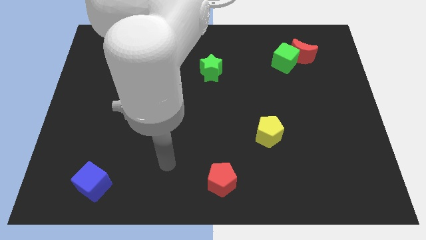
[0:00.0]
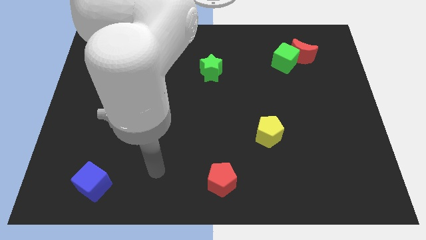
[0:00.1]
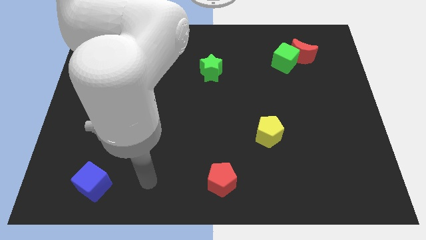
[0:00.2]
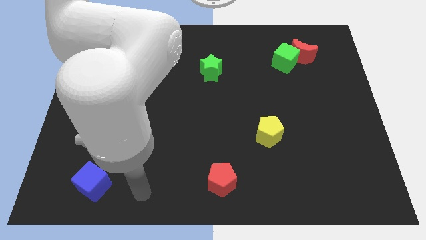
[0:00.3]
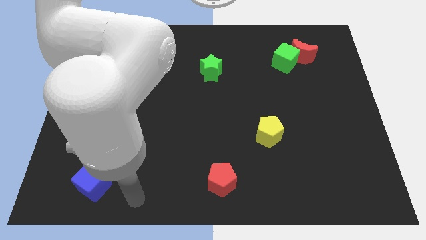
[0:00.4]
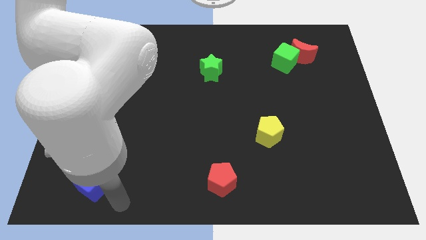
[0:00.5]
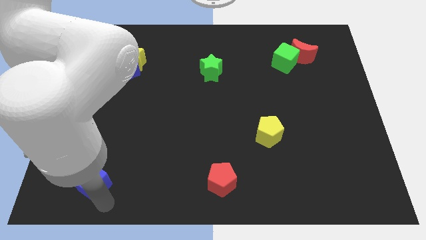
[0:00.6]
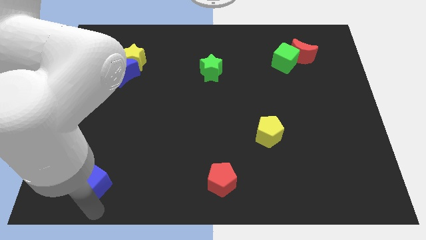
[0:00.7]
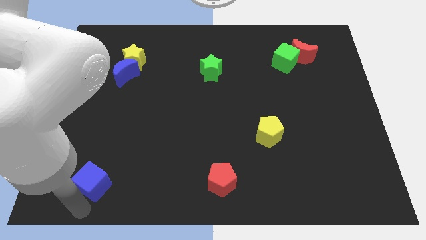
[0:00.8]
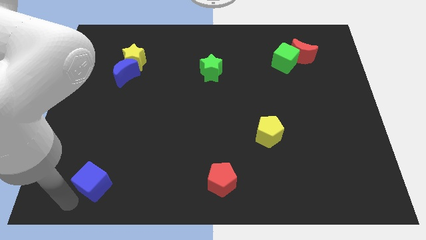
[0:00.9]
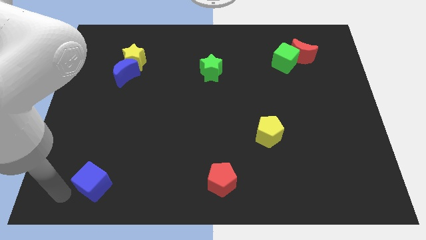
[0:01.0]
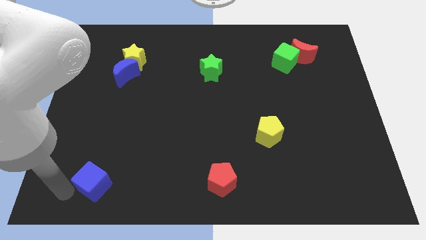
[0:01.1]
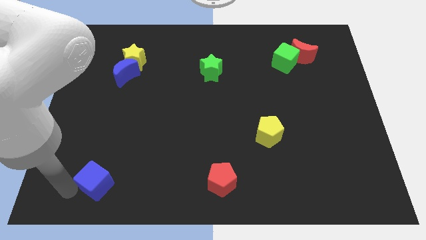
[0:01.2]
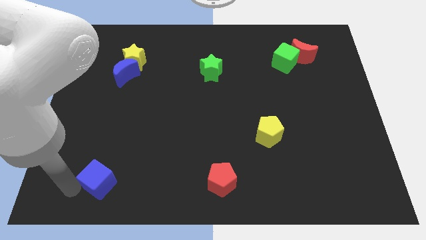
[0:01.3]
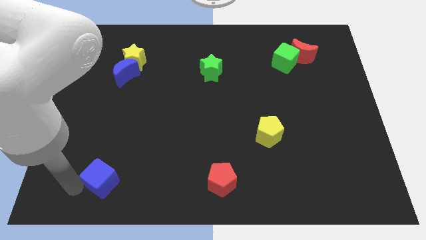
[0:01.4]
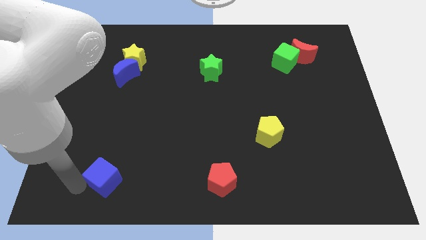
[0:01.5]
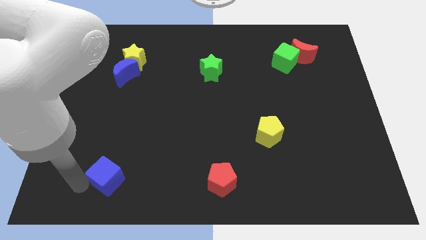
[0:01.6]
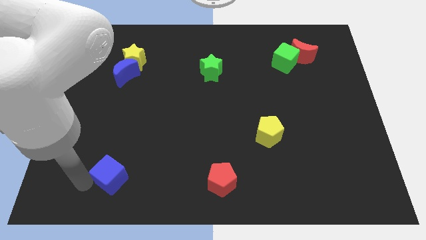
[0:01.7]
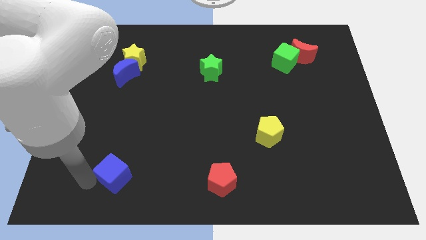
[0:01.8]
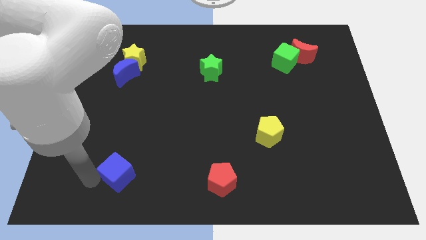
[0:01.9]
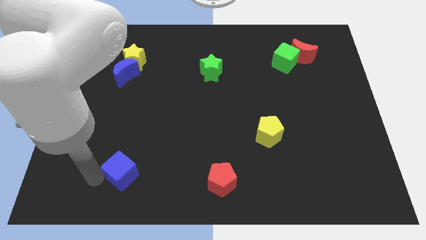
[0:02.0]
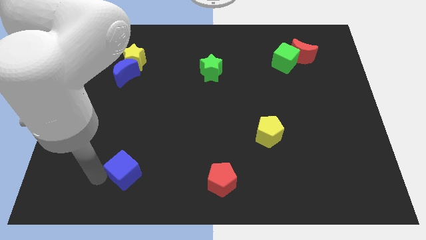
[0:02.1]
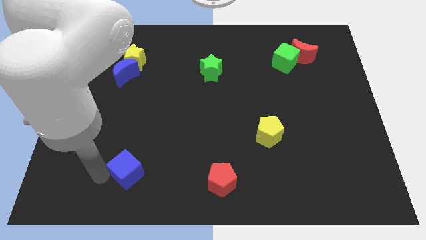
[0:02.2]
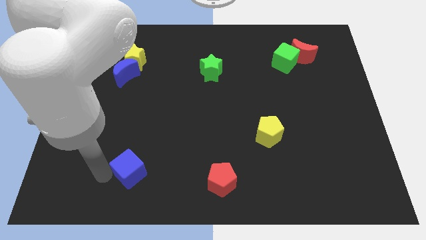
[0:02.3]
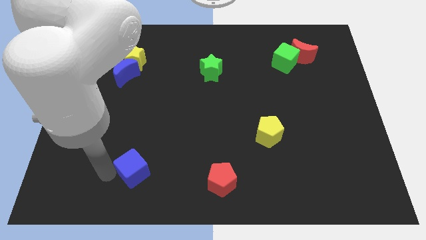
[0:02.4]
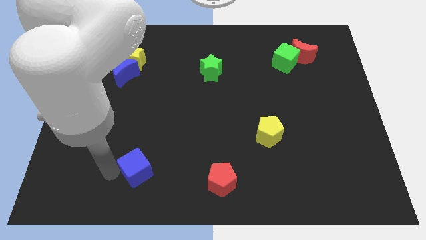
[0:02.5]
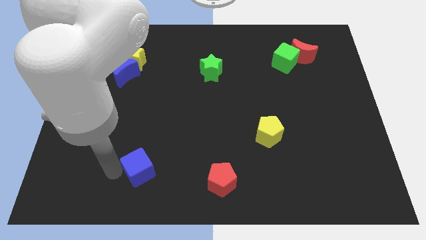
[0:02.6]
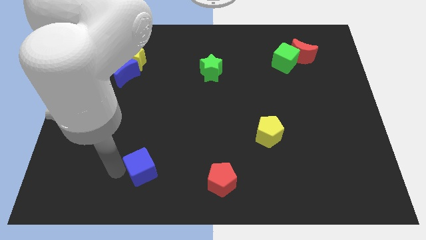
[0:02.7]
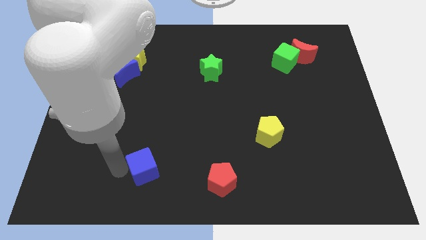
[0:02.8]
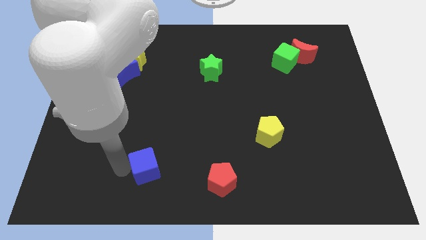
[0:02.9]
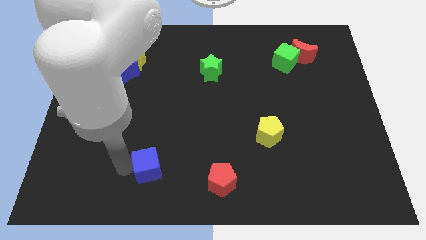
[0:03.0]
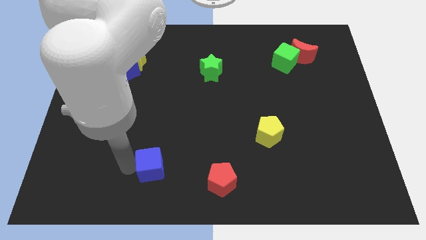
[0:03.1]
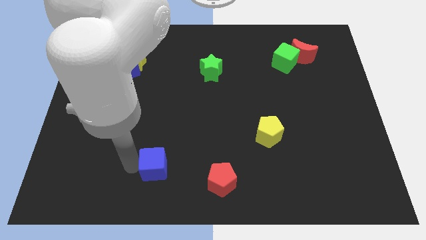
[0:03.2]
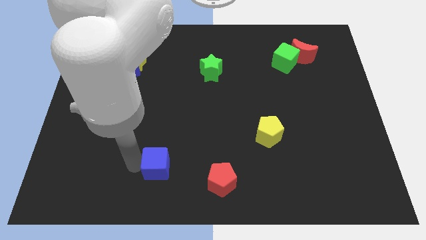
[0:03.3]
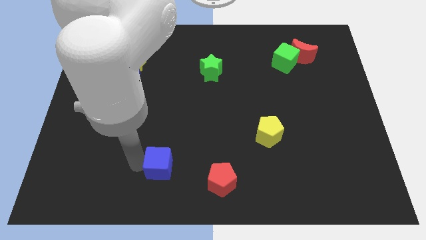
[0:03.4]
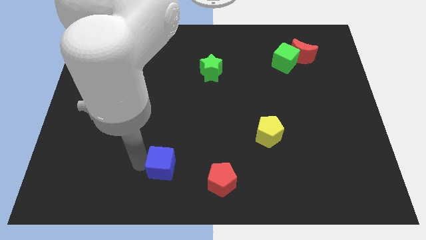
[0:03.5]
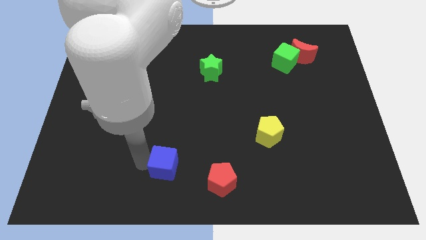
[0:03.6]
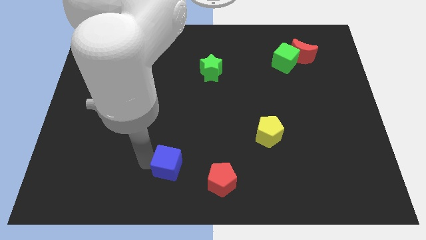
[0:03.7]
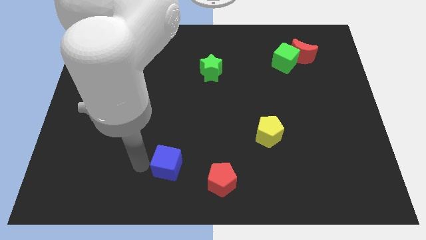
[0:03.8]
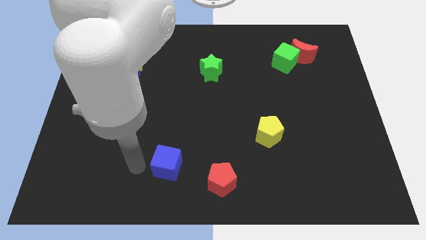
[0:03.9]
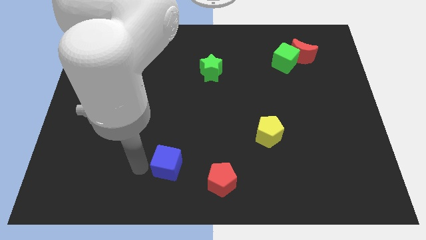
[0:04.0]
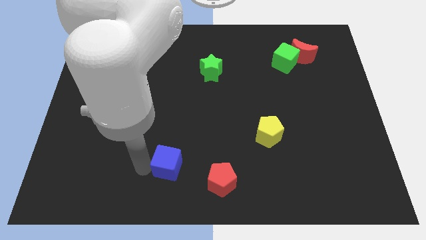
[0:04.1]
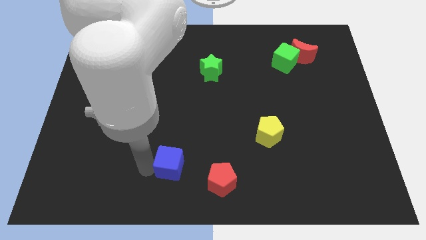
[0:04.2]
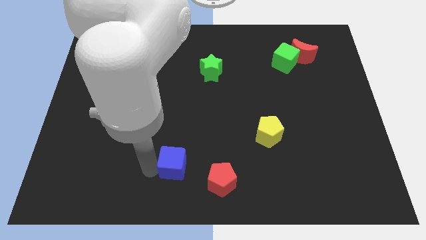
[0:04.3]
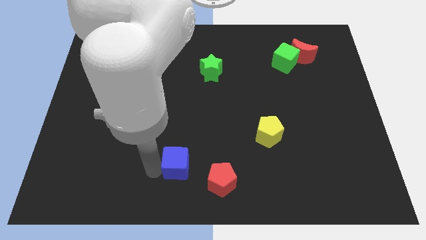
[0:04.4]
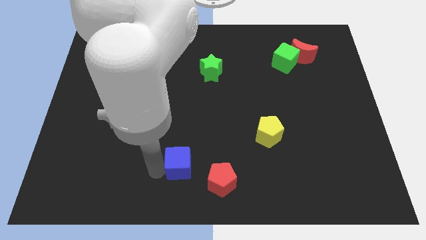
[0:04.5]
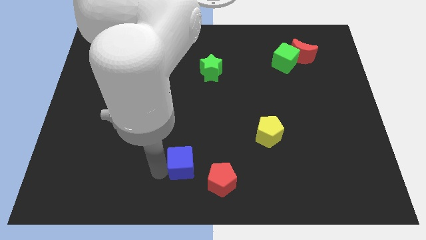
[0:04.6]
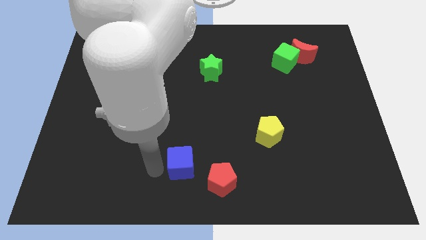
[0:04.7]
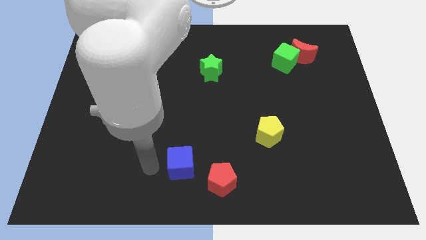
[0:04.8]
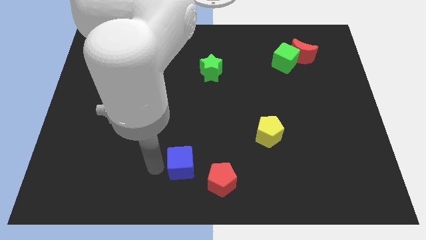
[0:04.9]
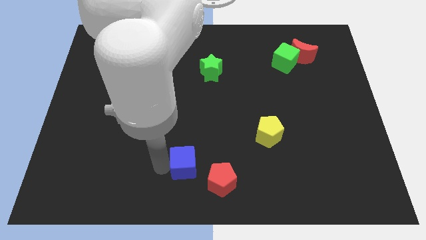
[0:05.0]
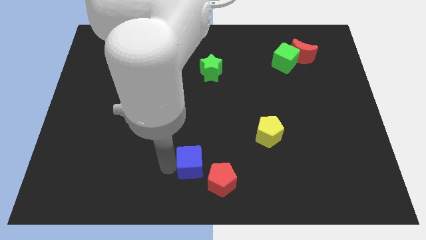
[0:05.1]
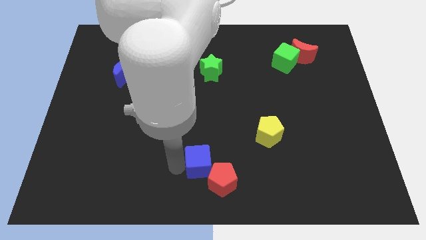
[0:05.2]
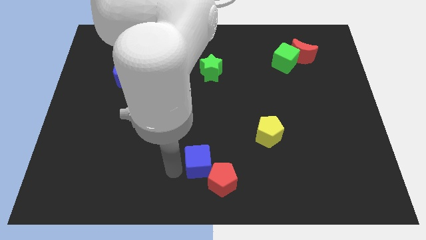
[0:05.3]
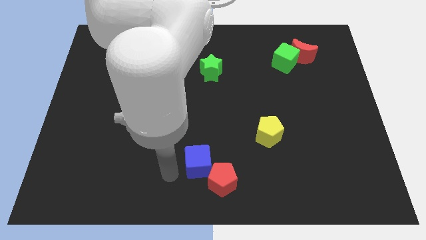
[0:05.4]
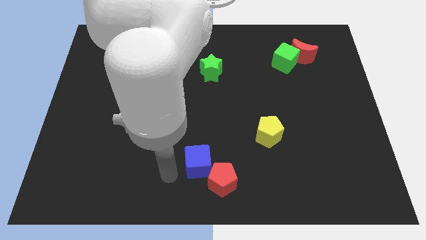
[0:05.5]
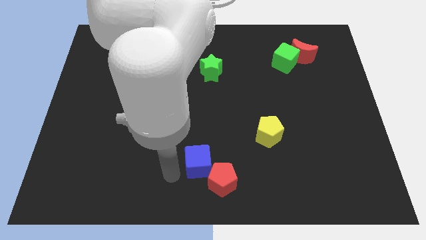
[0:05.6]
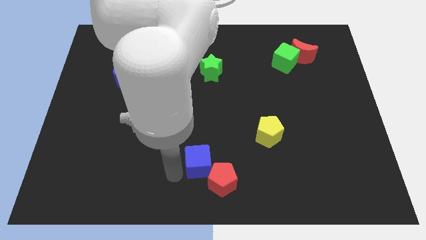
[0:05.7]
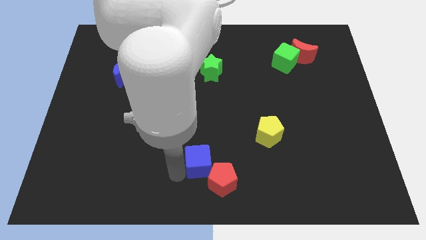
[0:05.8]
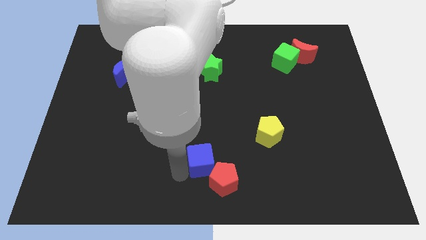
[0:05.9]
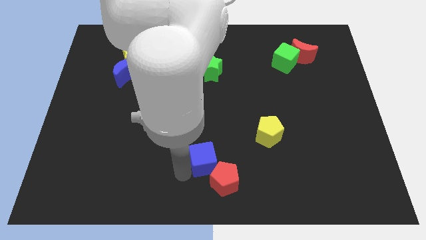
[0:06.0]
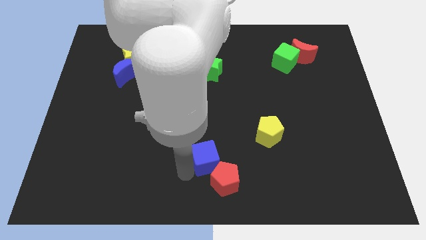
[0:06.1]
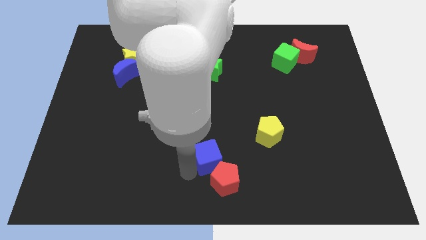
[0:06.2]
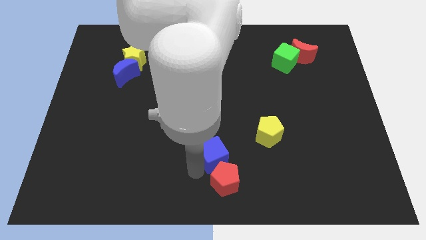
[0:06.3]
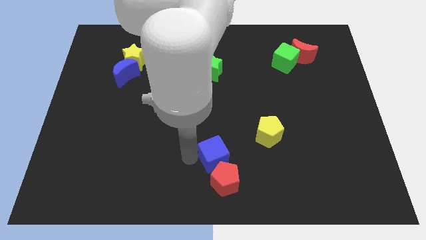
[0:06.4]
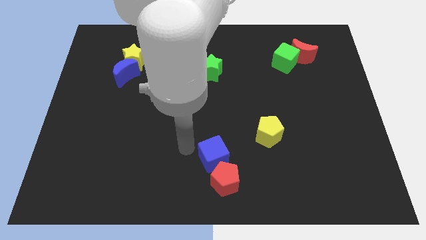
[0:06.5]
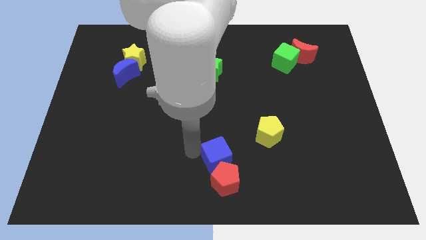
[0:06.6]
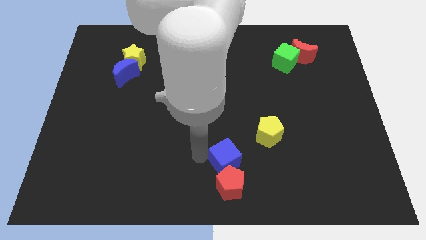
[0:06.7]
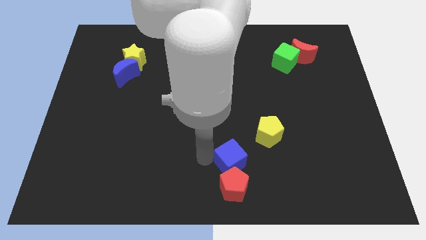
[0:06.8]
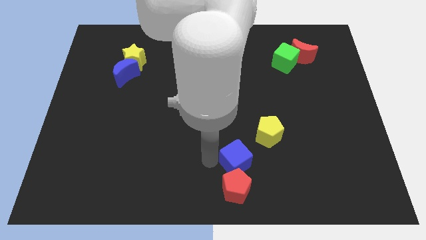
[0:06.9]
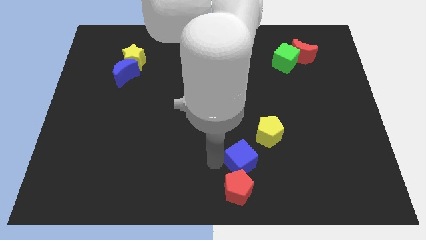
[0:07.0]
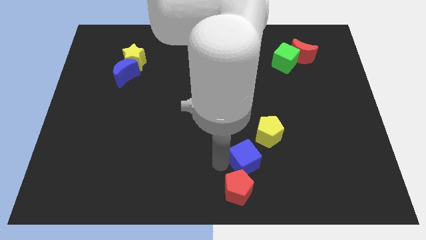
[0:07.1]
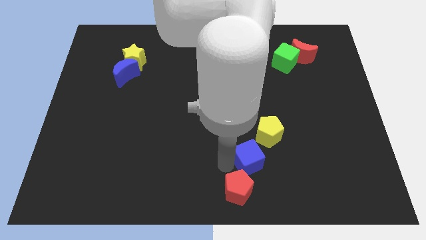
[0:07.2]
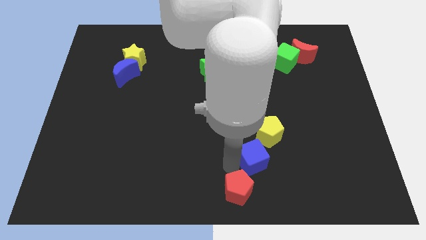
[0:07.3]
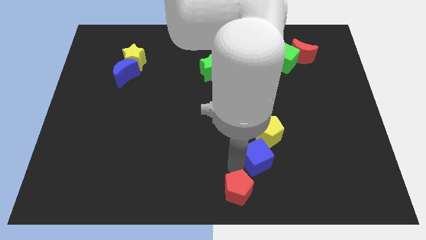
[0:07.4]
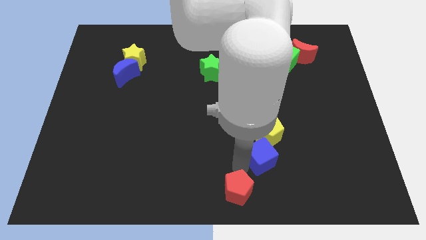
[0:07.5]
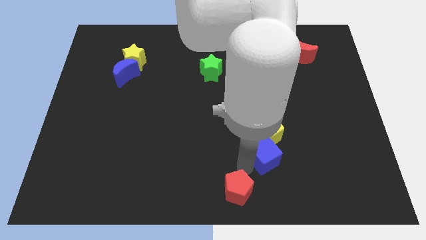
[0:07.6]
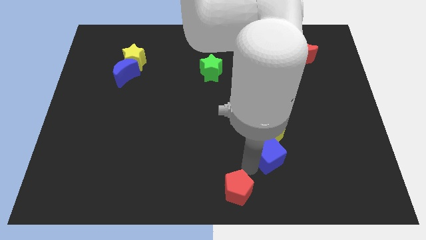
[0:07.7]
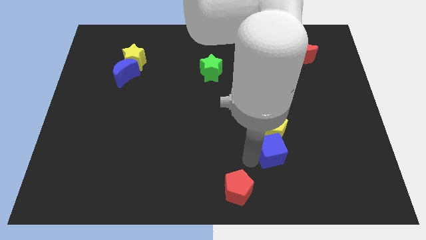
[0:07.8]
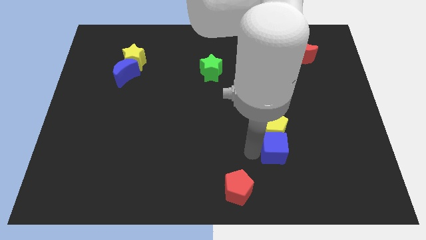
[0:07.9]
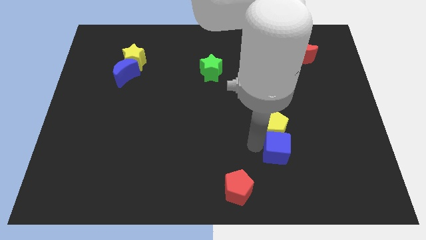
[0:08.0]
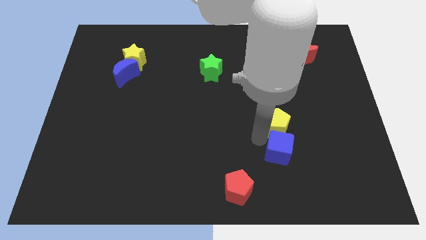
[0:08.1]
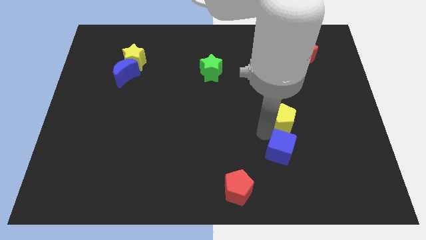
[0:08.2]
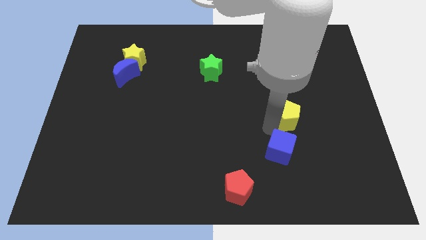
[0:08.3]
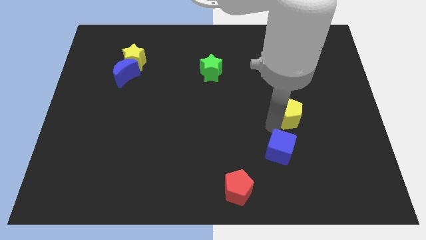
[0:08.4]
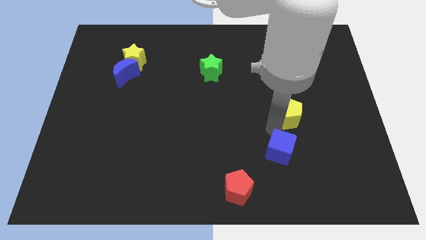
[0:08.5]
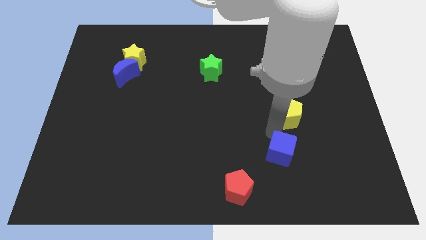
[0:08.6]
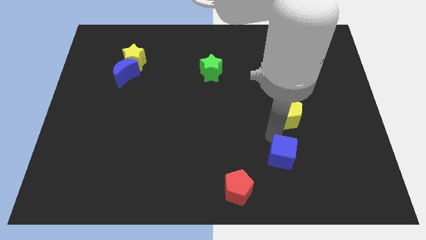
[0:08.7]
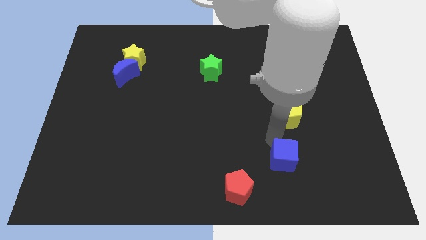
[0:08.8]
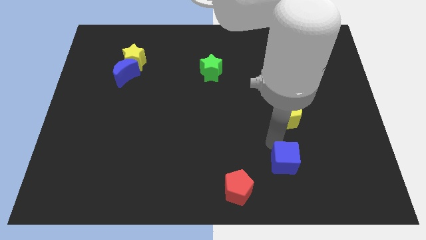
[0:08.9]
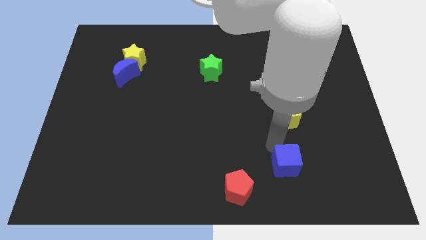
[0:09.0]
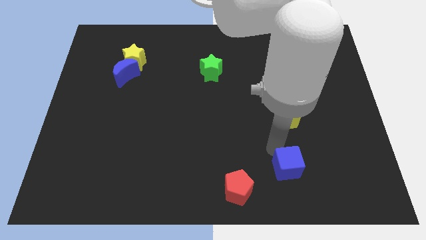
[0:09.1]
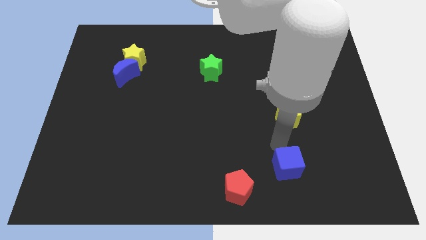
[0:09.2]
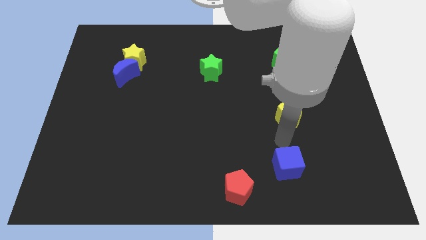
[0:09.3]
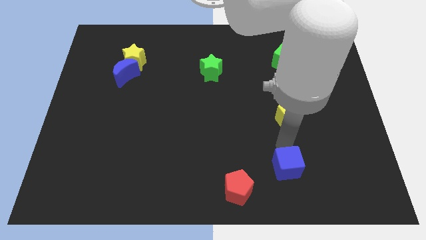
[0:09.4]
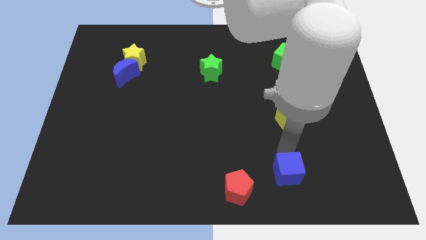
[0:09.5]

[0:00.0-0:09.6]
put the blue cube to the right of the red pentagon
